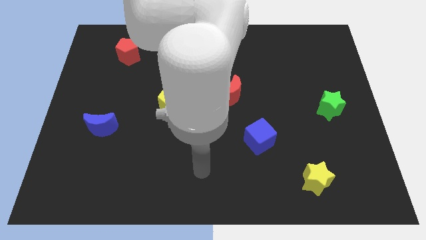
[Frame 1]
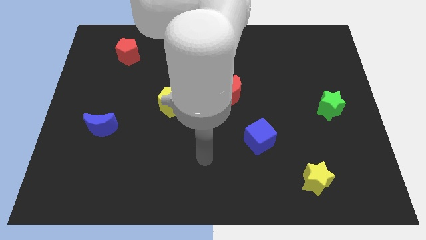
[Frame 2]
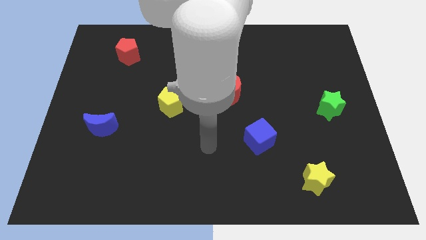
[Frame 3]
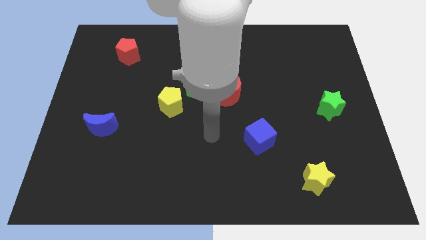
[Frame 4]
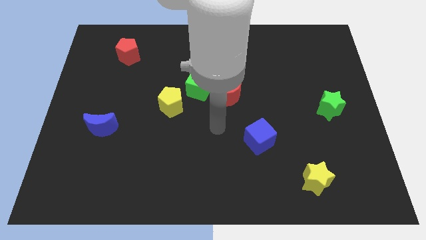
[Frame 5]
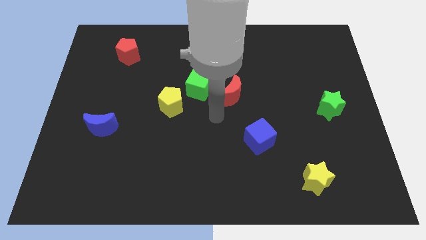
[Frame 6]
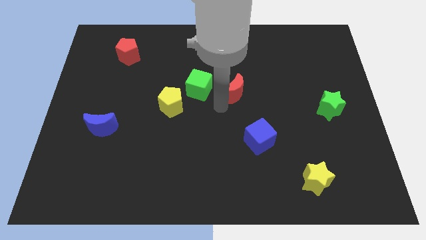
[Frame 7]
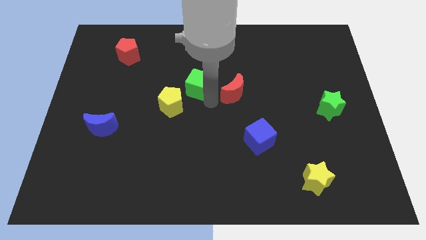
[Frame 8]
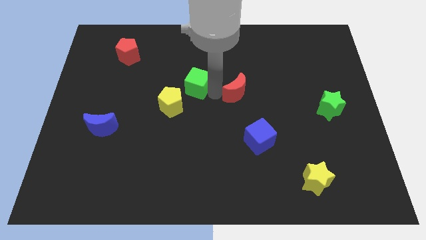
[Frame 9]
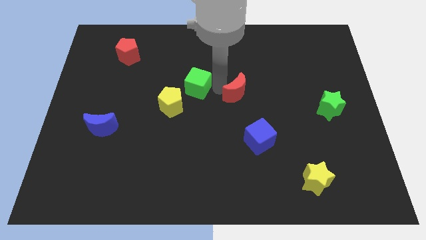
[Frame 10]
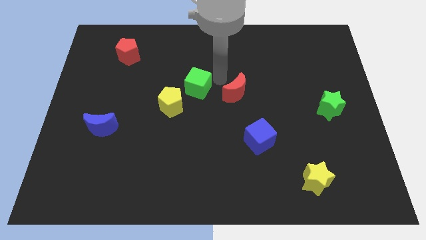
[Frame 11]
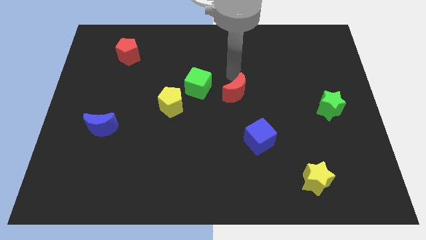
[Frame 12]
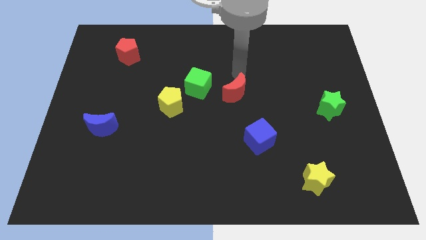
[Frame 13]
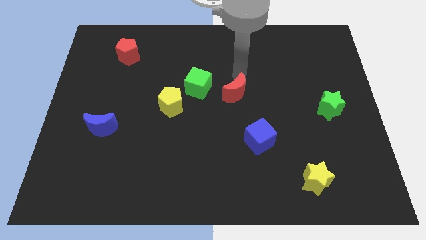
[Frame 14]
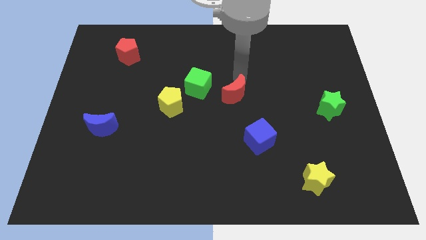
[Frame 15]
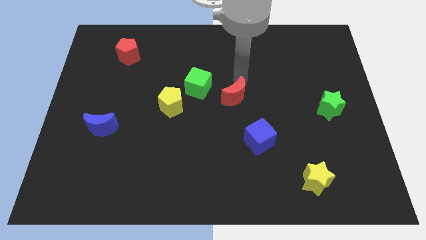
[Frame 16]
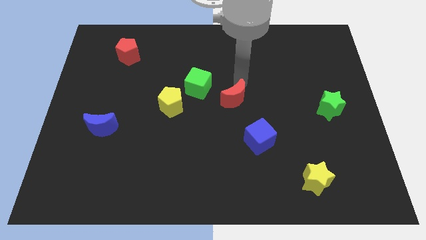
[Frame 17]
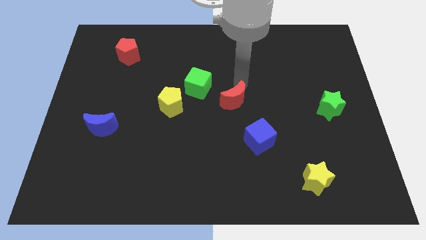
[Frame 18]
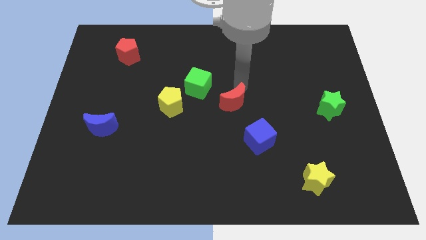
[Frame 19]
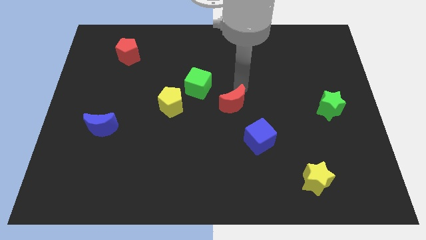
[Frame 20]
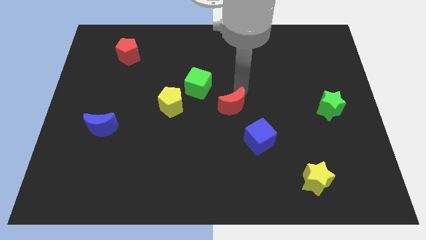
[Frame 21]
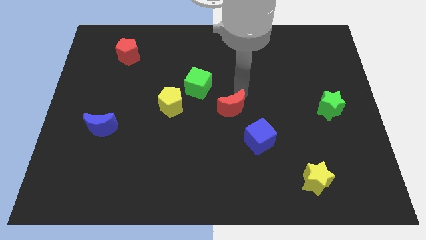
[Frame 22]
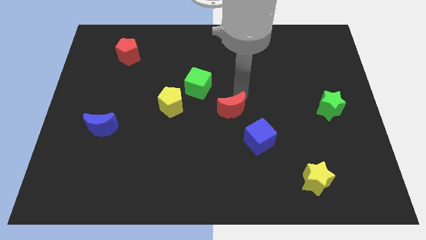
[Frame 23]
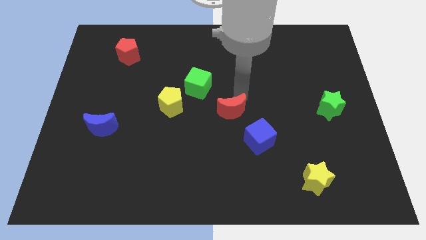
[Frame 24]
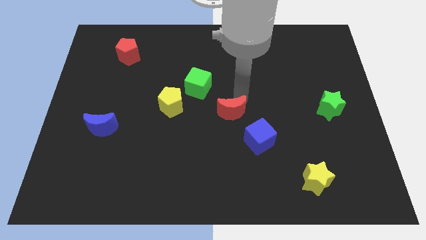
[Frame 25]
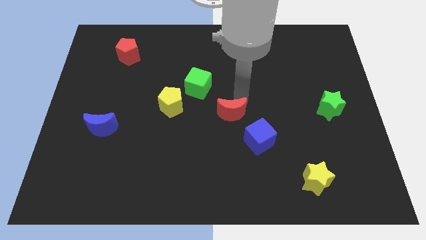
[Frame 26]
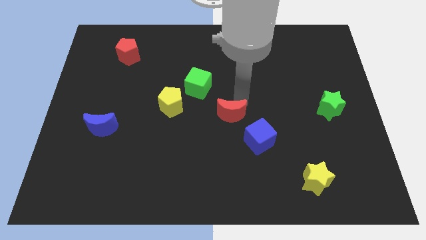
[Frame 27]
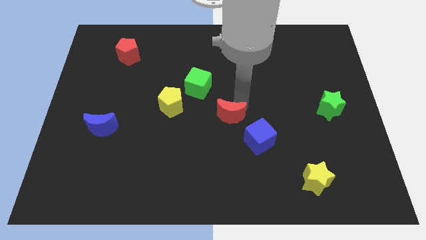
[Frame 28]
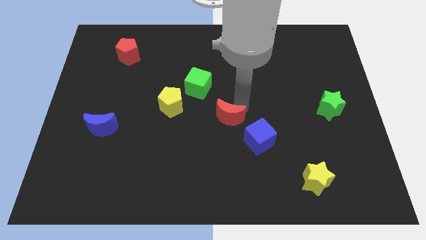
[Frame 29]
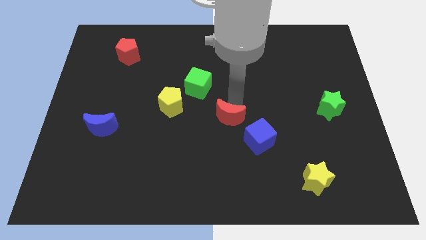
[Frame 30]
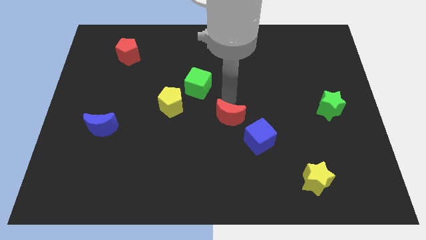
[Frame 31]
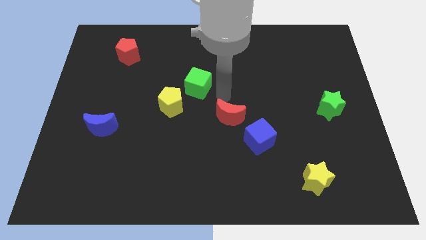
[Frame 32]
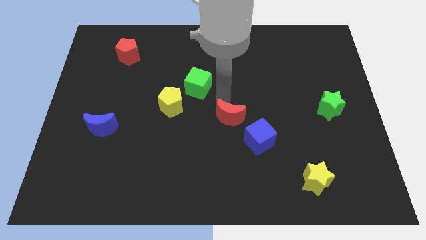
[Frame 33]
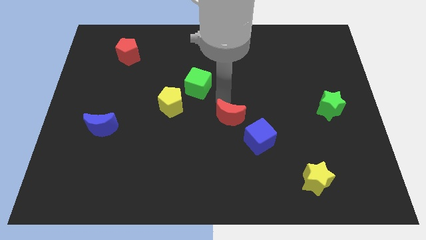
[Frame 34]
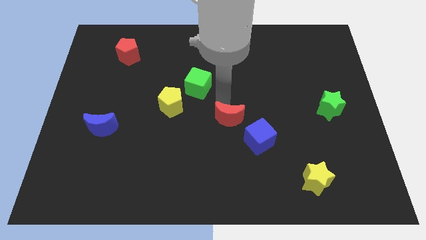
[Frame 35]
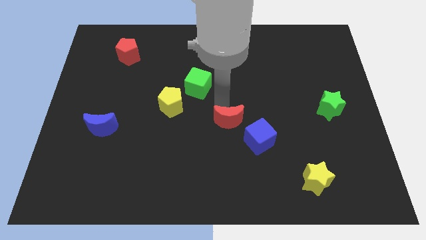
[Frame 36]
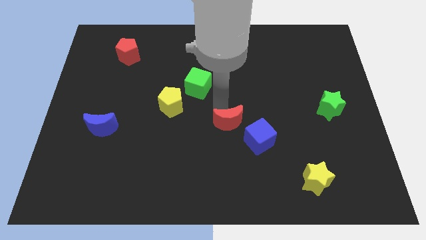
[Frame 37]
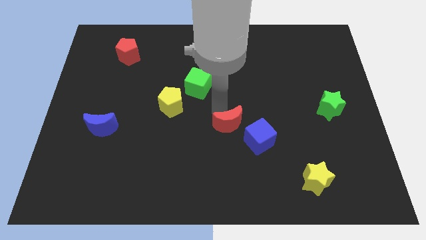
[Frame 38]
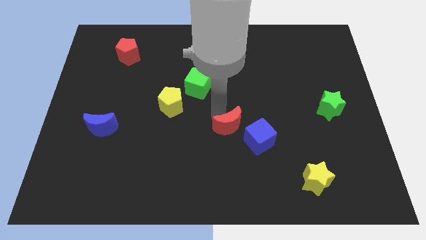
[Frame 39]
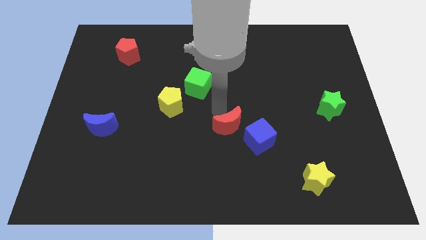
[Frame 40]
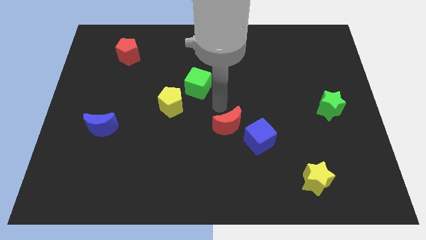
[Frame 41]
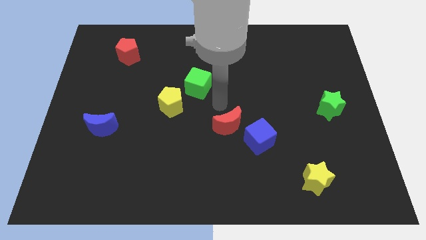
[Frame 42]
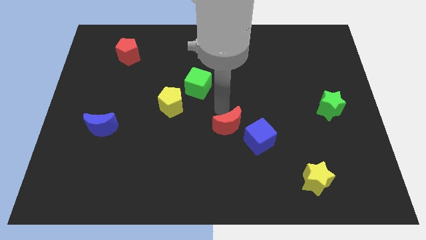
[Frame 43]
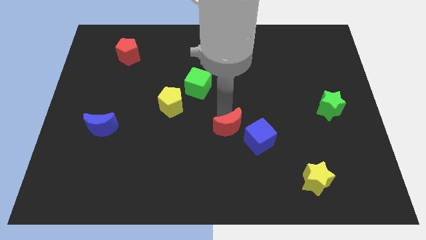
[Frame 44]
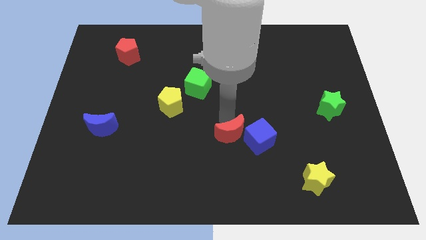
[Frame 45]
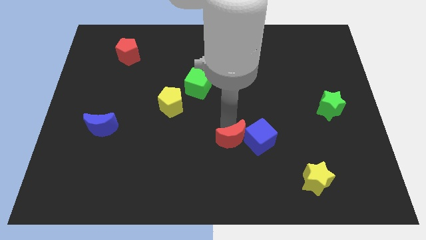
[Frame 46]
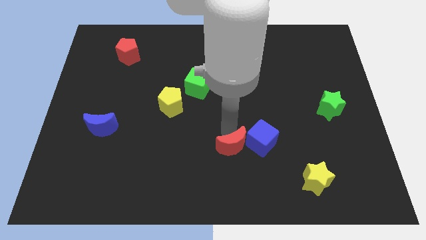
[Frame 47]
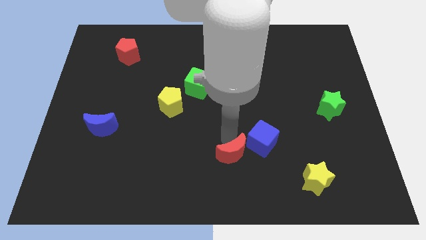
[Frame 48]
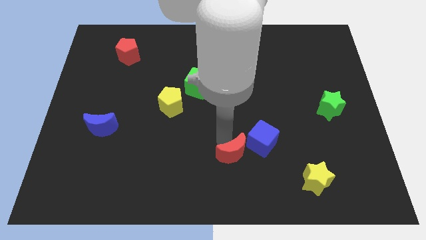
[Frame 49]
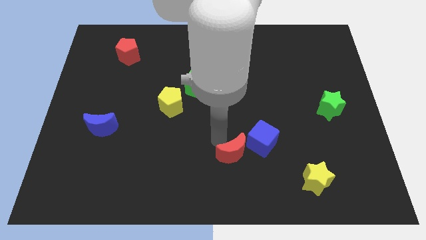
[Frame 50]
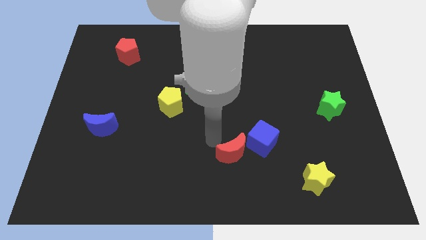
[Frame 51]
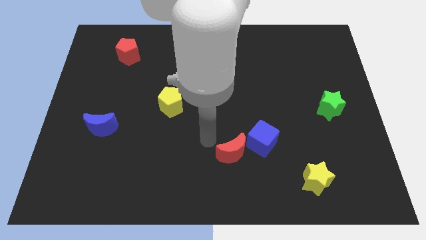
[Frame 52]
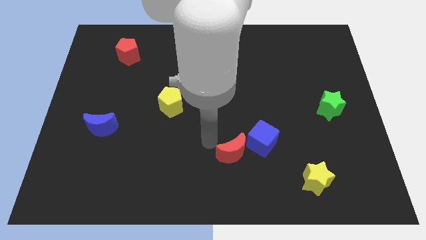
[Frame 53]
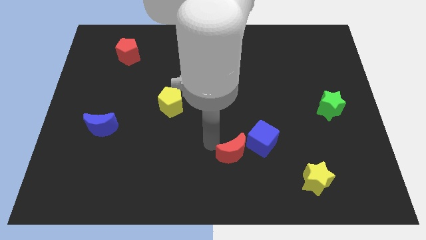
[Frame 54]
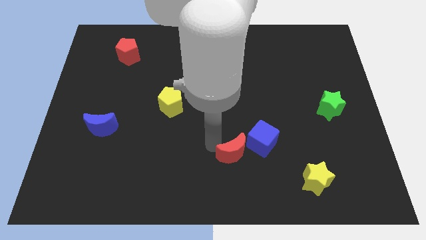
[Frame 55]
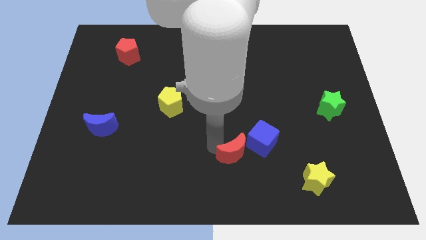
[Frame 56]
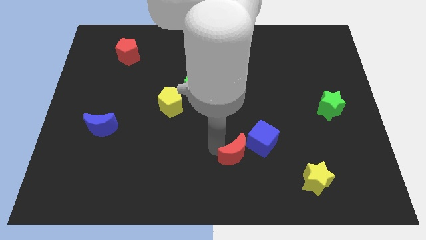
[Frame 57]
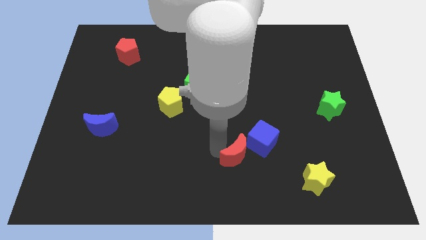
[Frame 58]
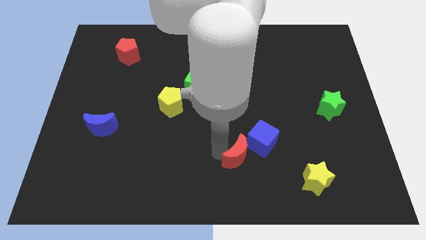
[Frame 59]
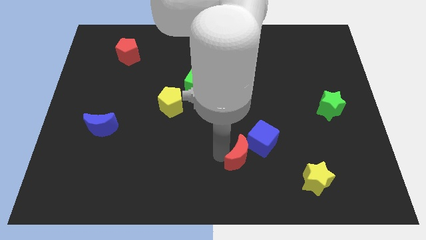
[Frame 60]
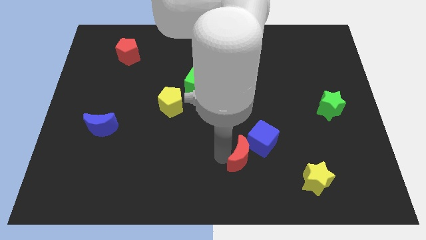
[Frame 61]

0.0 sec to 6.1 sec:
put the red moon to the bottom side of the blue cube

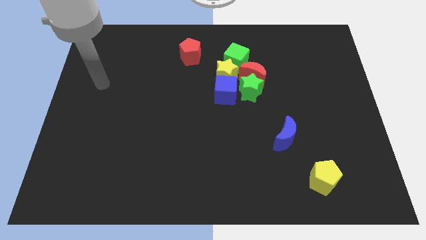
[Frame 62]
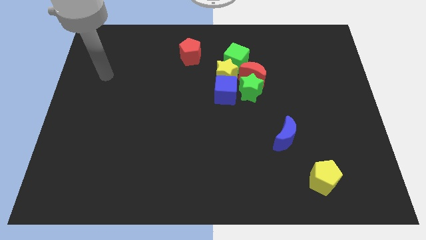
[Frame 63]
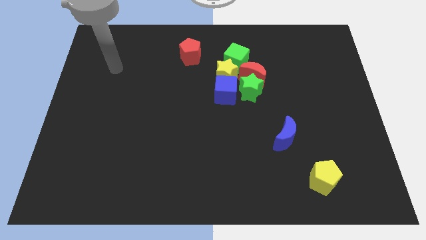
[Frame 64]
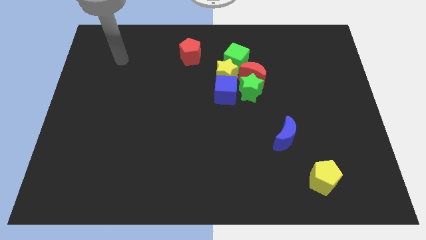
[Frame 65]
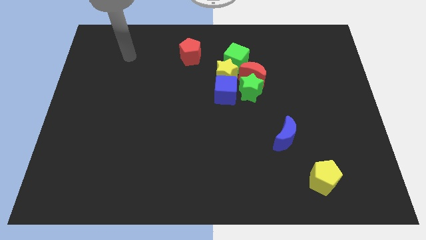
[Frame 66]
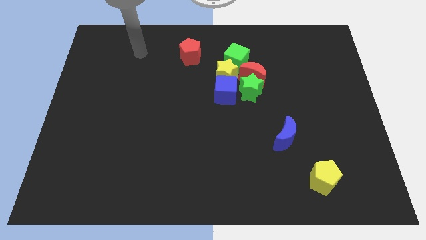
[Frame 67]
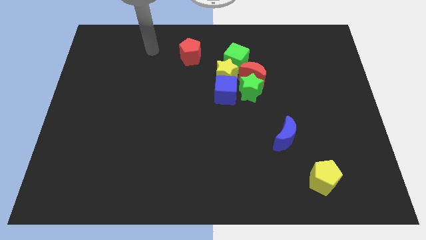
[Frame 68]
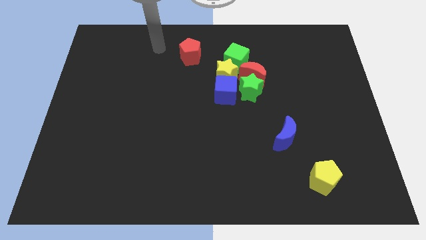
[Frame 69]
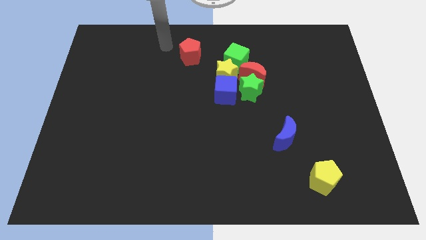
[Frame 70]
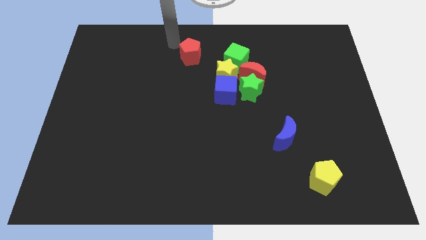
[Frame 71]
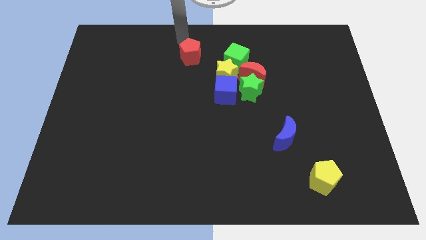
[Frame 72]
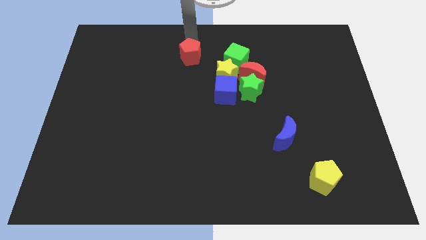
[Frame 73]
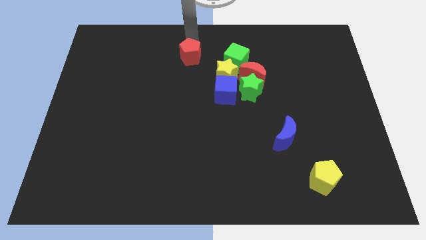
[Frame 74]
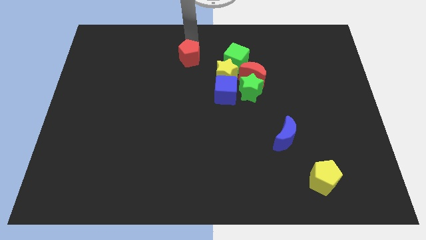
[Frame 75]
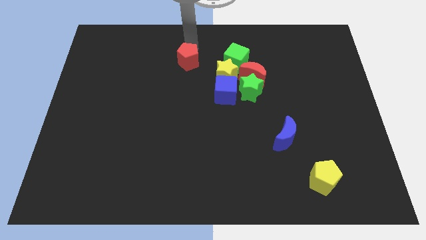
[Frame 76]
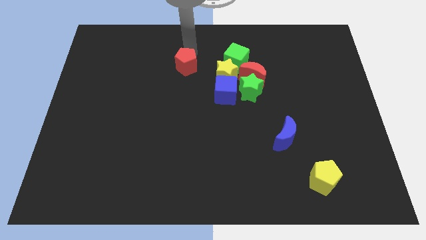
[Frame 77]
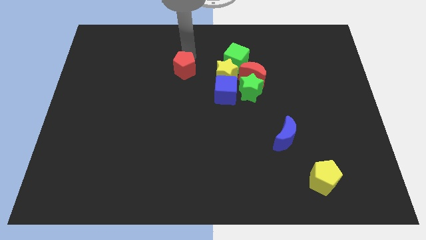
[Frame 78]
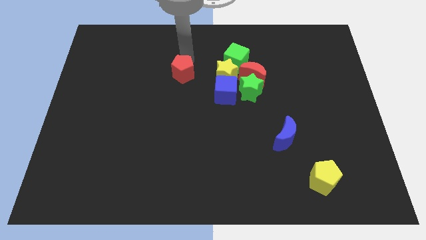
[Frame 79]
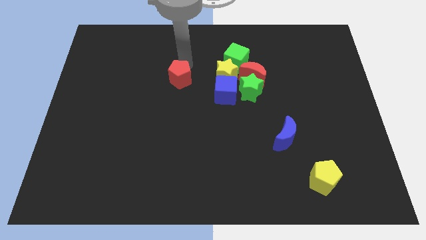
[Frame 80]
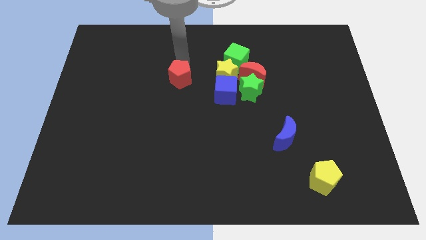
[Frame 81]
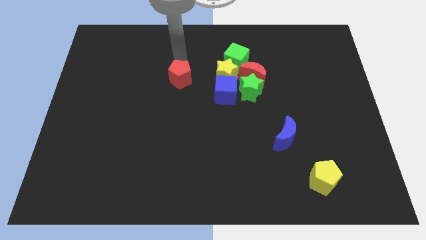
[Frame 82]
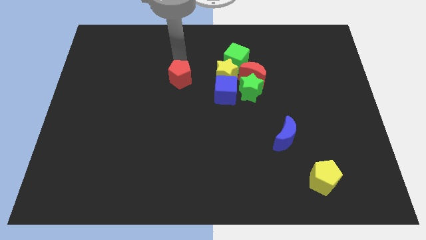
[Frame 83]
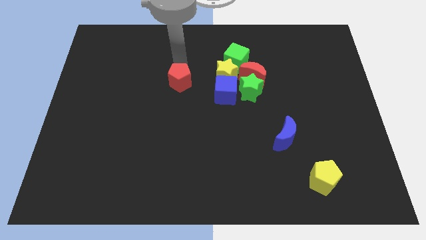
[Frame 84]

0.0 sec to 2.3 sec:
put the red pentagon left of the blue cube
